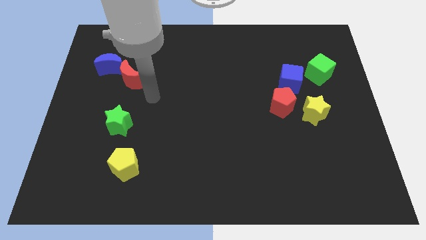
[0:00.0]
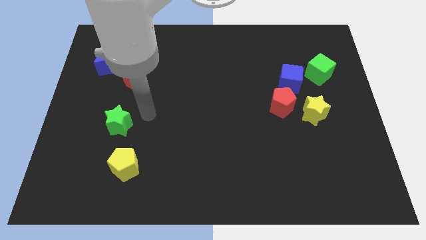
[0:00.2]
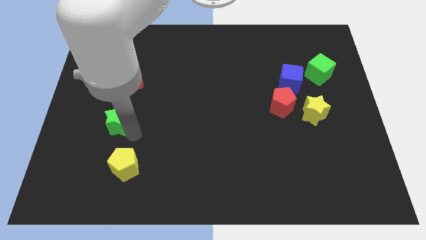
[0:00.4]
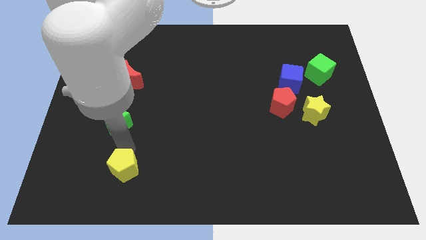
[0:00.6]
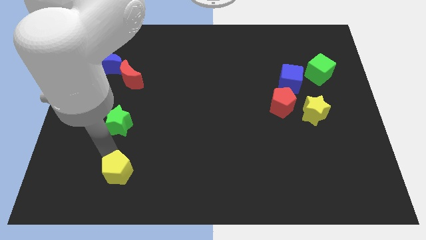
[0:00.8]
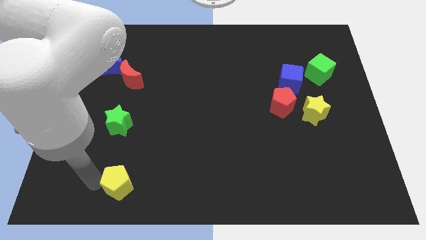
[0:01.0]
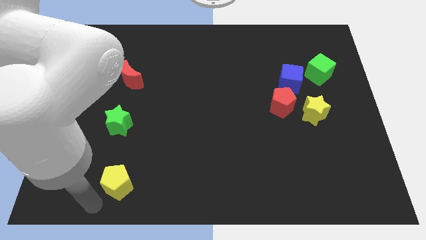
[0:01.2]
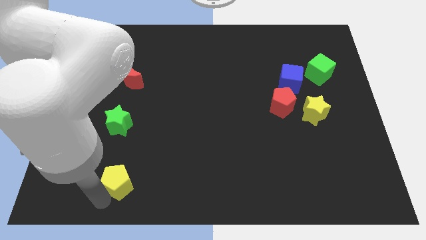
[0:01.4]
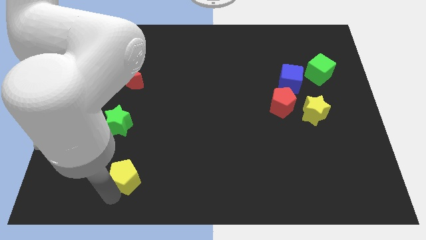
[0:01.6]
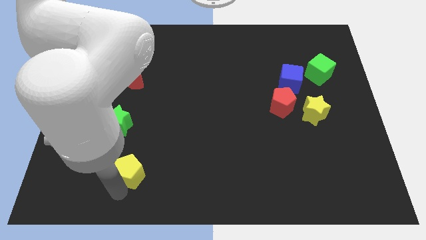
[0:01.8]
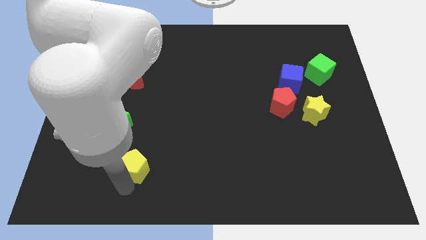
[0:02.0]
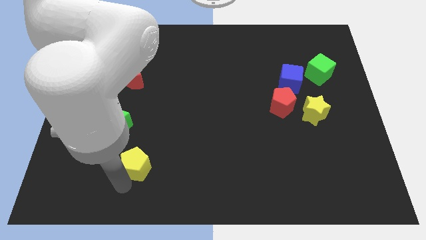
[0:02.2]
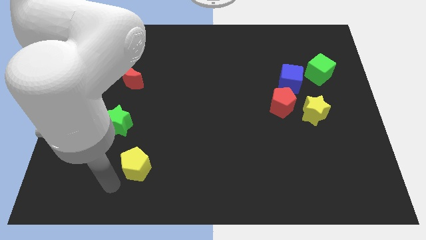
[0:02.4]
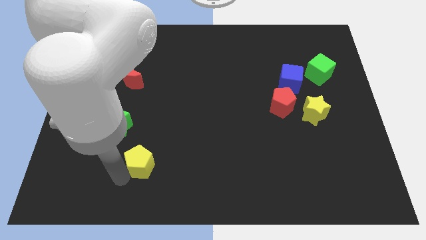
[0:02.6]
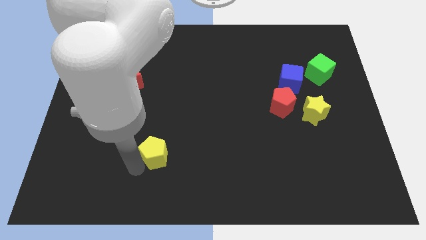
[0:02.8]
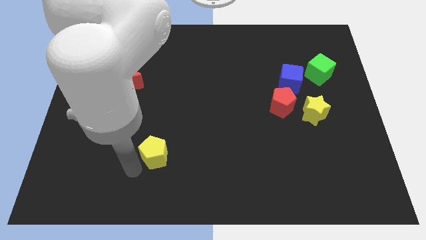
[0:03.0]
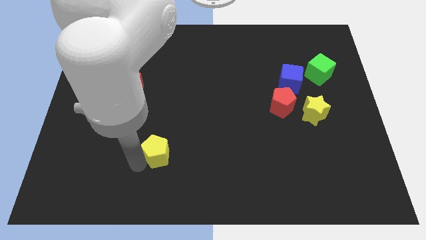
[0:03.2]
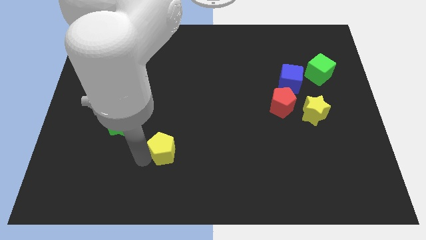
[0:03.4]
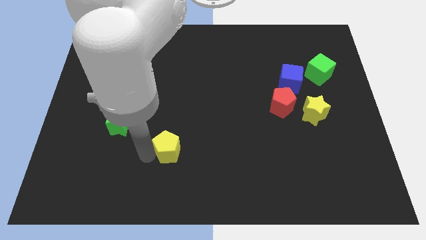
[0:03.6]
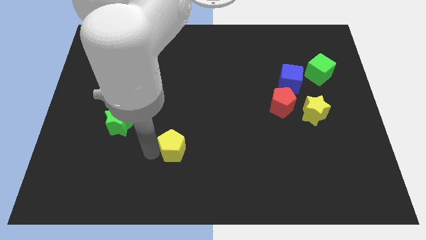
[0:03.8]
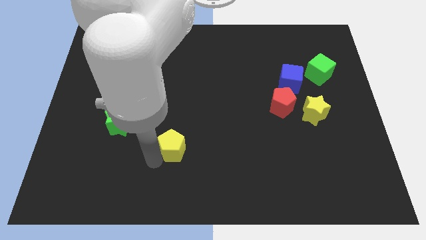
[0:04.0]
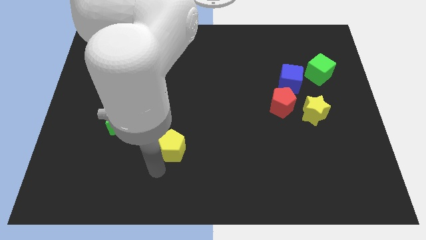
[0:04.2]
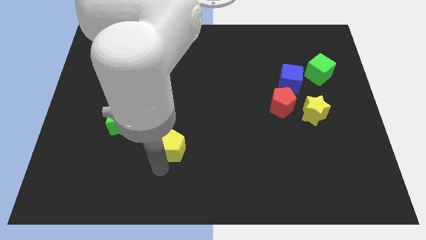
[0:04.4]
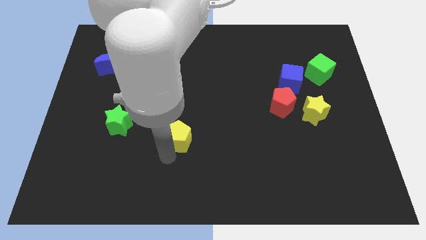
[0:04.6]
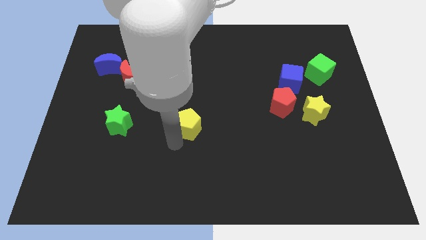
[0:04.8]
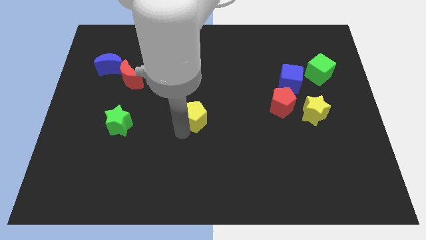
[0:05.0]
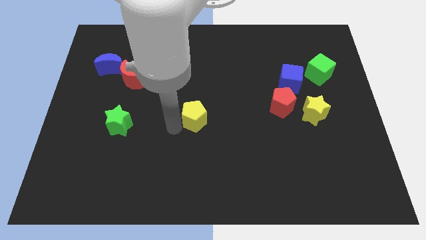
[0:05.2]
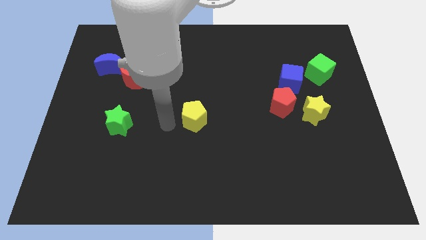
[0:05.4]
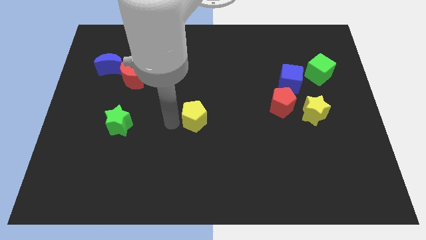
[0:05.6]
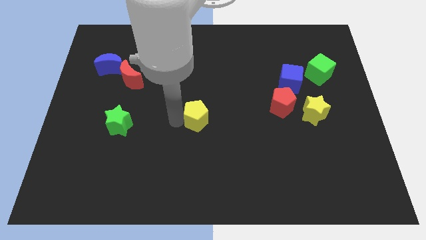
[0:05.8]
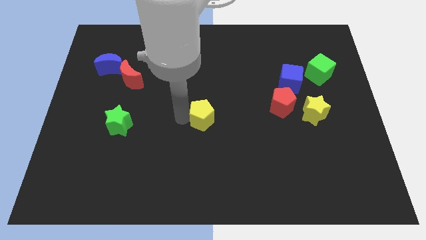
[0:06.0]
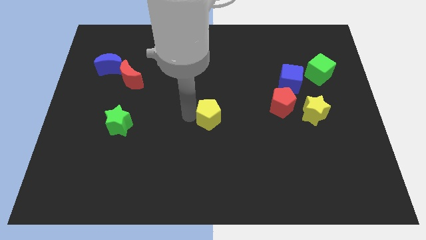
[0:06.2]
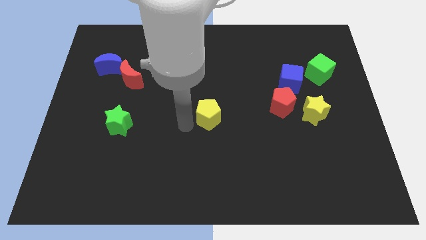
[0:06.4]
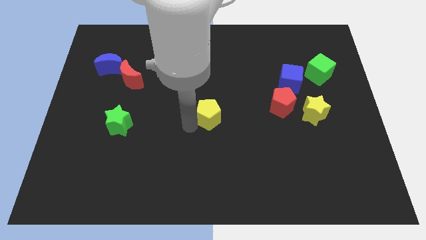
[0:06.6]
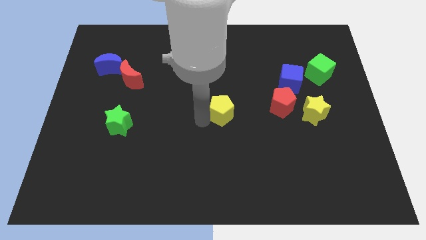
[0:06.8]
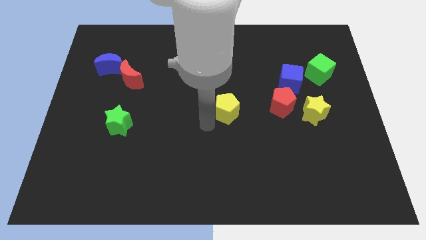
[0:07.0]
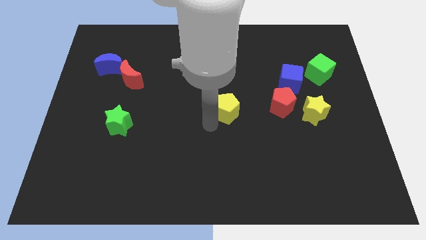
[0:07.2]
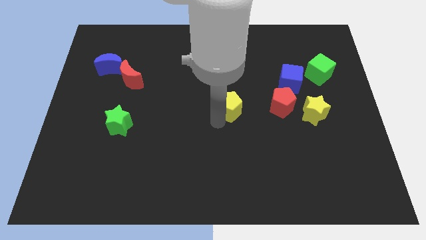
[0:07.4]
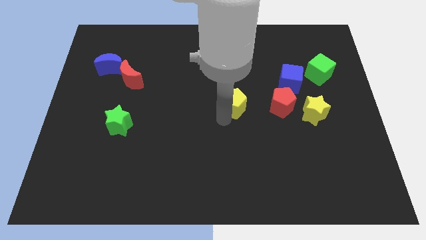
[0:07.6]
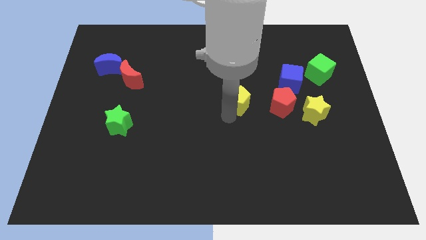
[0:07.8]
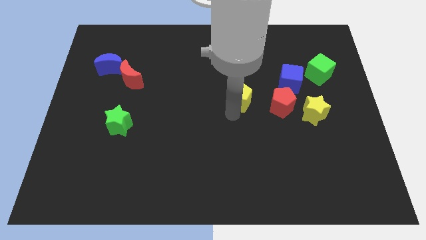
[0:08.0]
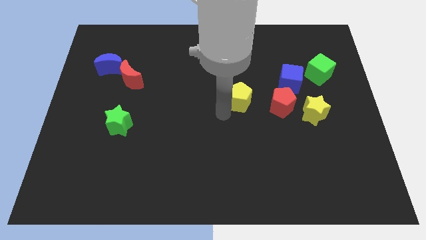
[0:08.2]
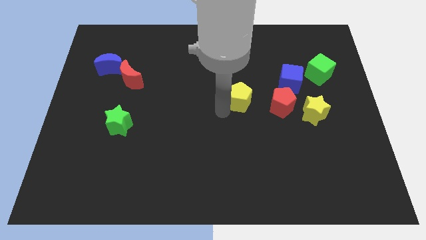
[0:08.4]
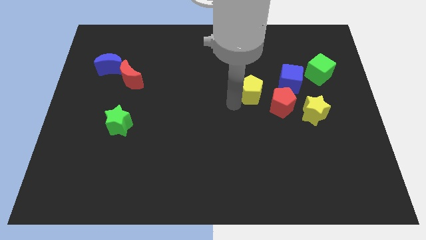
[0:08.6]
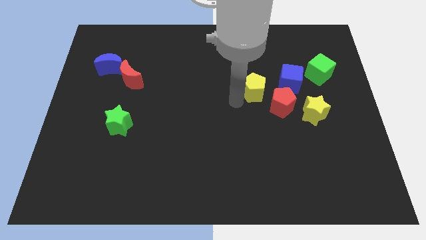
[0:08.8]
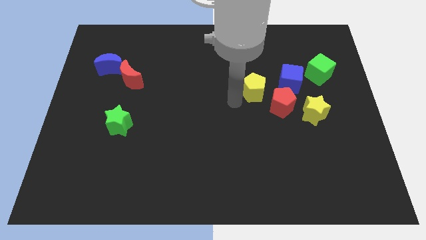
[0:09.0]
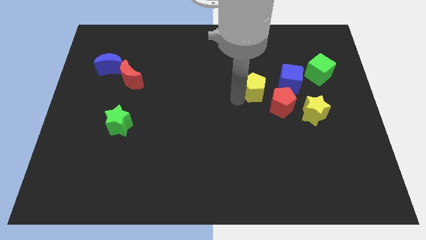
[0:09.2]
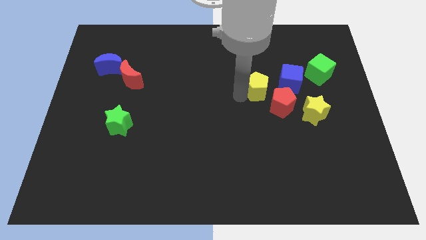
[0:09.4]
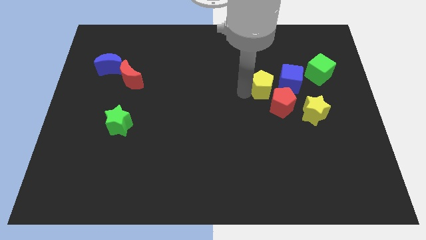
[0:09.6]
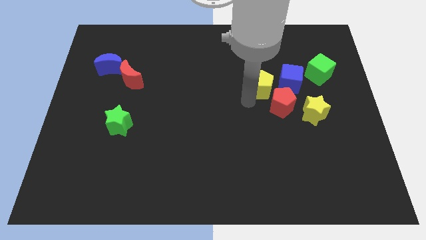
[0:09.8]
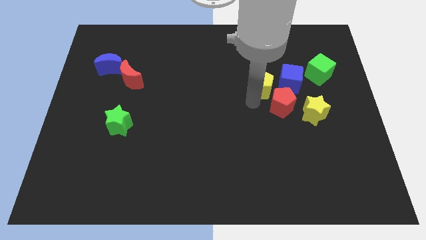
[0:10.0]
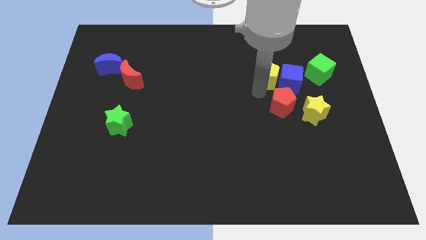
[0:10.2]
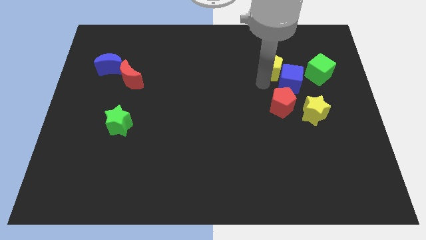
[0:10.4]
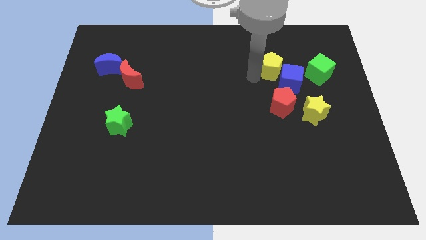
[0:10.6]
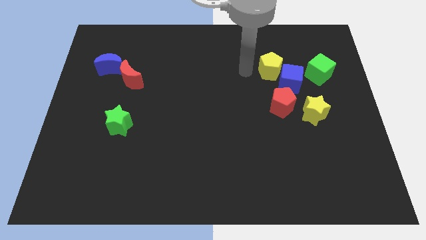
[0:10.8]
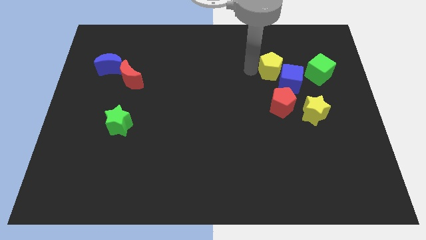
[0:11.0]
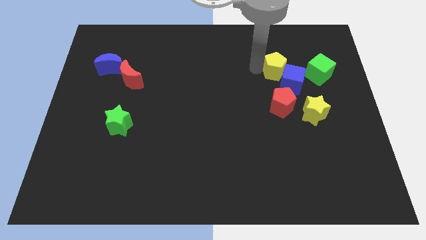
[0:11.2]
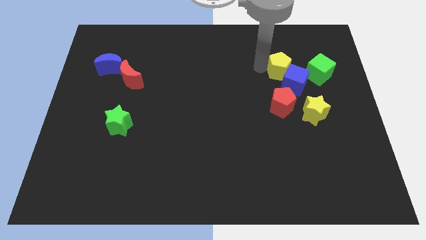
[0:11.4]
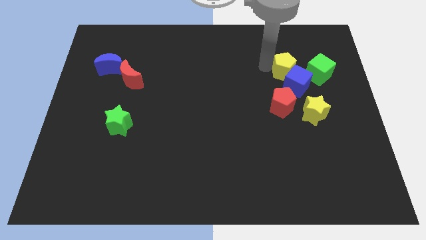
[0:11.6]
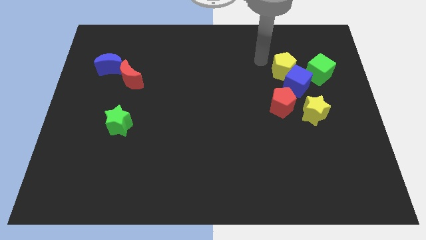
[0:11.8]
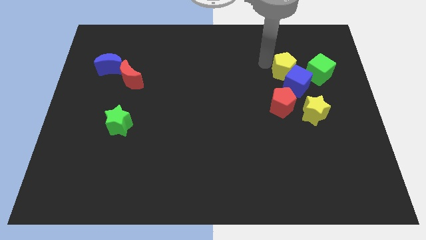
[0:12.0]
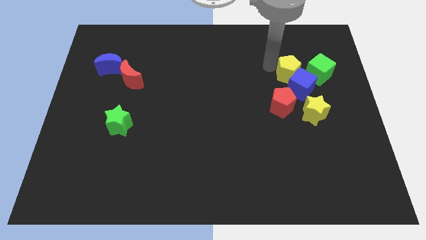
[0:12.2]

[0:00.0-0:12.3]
put the yellow pentagon above the yellow star
